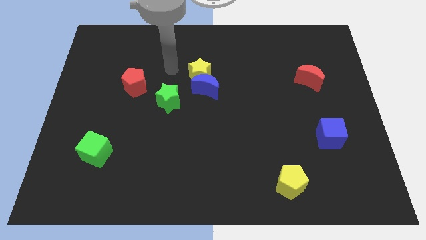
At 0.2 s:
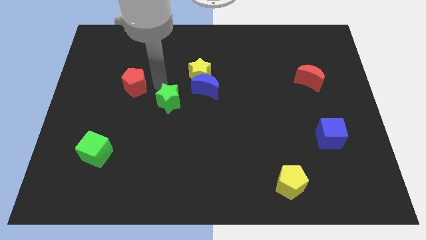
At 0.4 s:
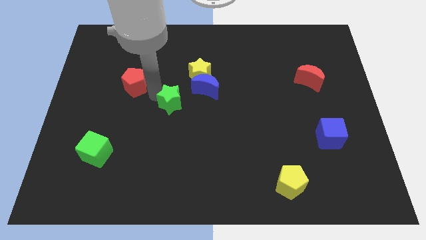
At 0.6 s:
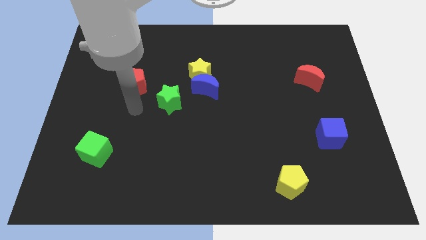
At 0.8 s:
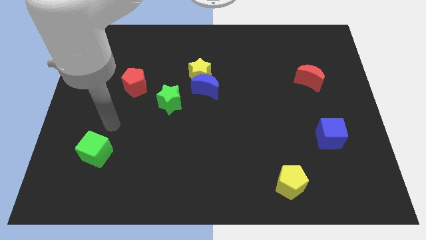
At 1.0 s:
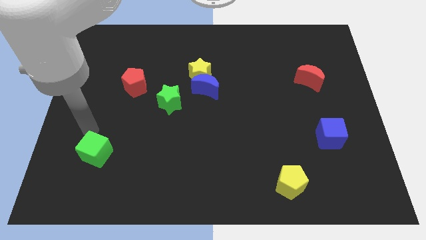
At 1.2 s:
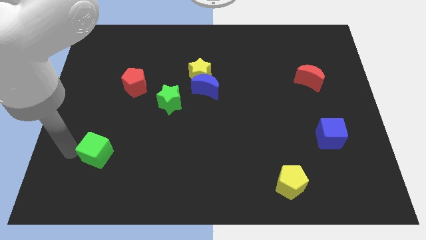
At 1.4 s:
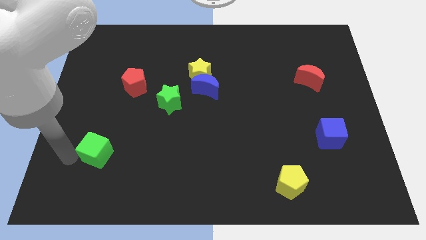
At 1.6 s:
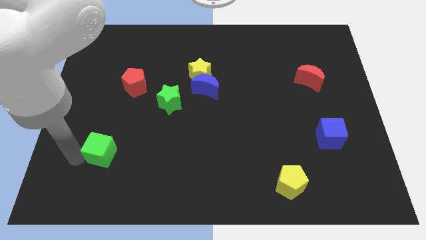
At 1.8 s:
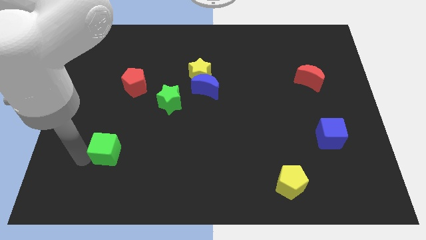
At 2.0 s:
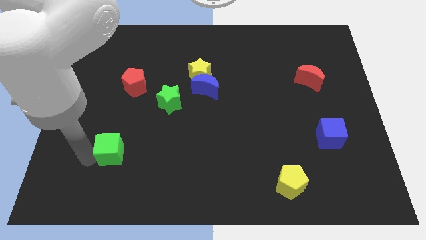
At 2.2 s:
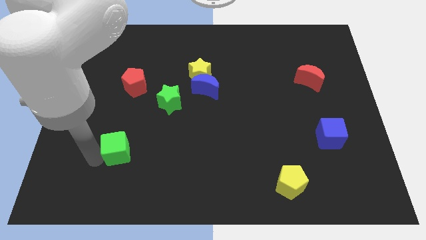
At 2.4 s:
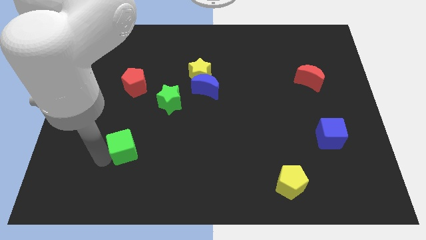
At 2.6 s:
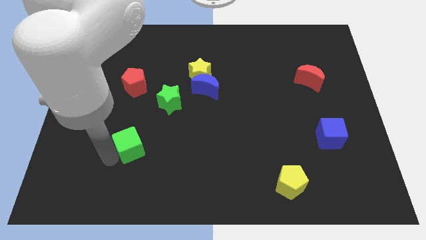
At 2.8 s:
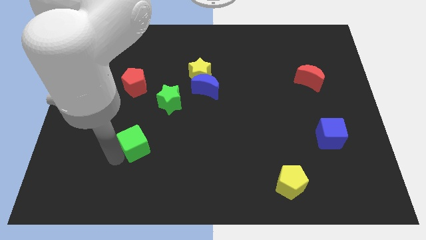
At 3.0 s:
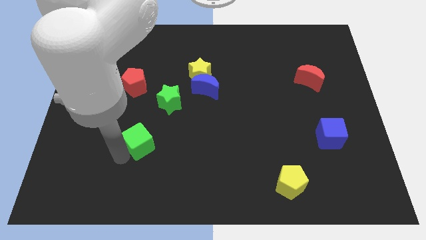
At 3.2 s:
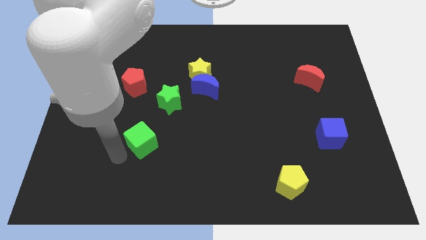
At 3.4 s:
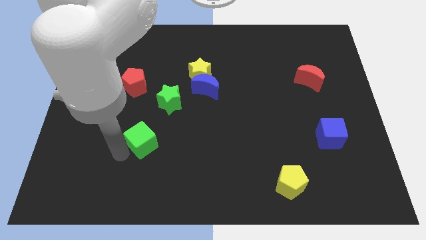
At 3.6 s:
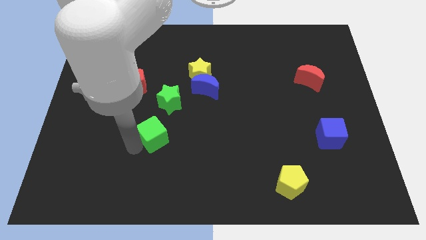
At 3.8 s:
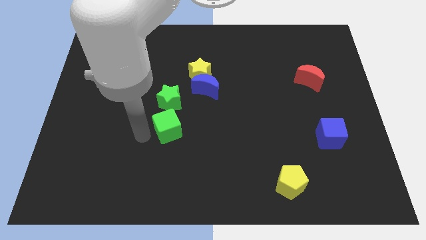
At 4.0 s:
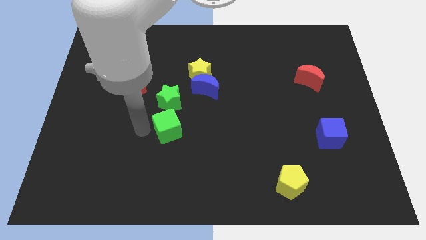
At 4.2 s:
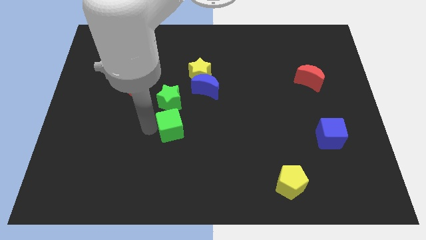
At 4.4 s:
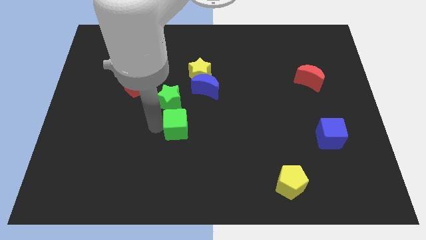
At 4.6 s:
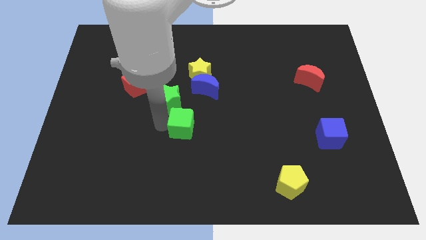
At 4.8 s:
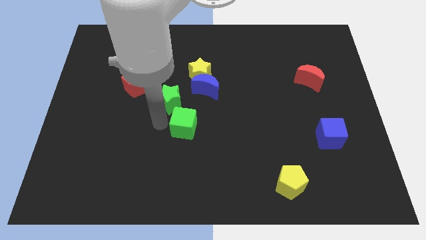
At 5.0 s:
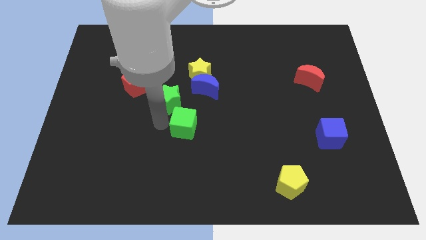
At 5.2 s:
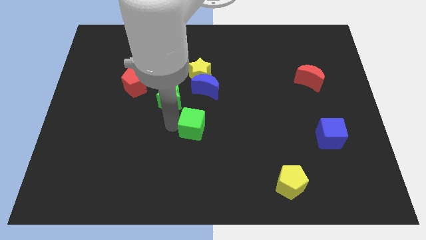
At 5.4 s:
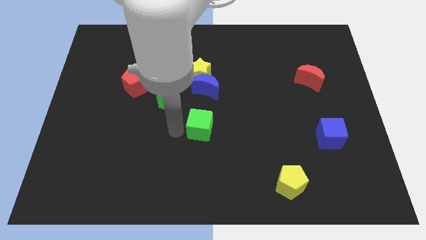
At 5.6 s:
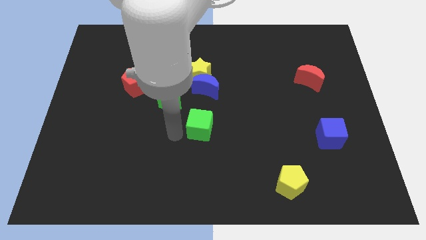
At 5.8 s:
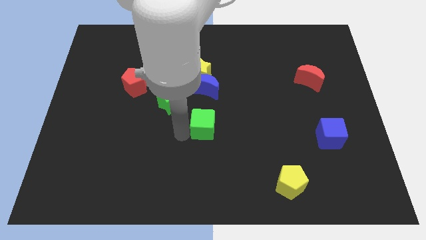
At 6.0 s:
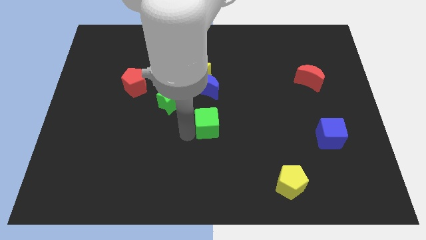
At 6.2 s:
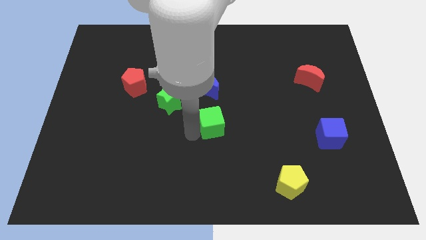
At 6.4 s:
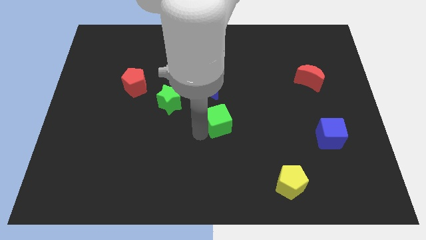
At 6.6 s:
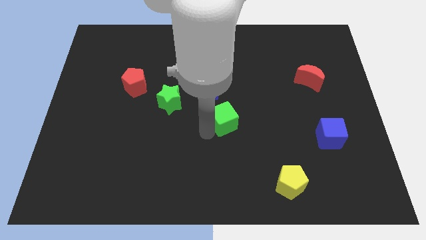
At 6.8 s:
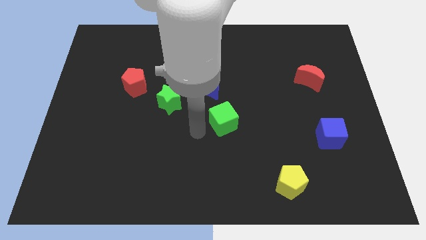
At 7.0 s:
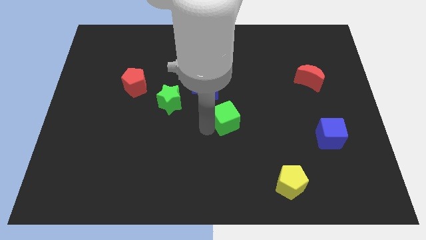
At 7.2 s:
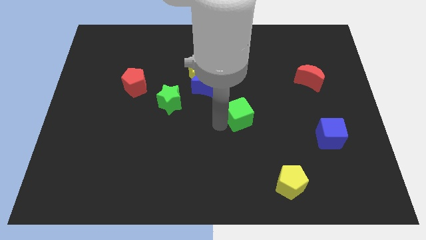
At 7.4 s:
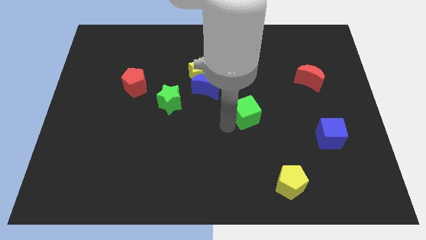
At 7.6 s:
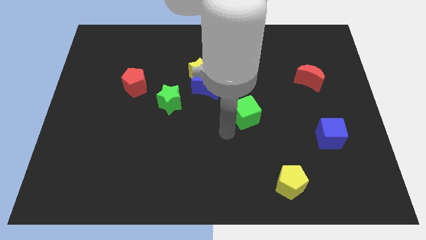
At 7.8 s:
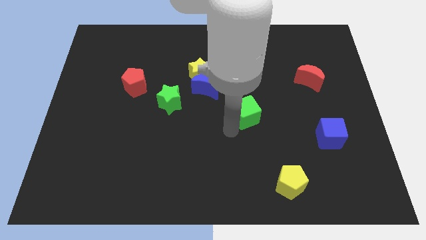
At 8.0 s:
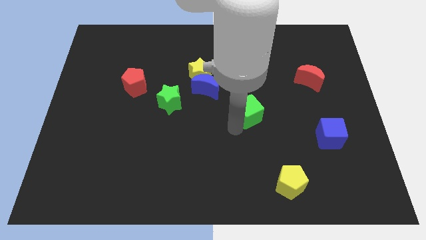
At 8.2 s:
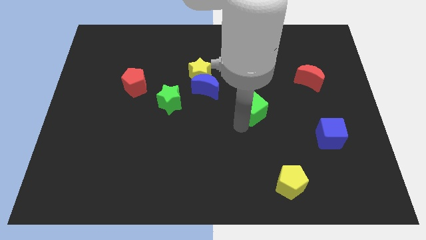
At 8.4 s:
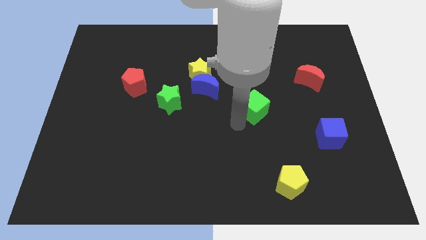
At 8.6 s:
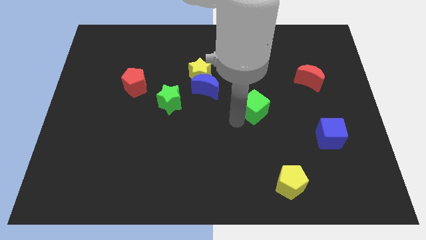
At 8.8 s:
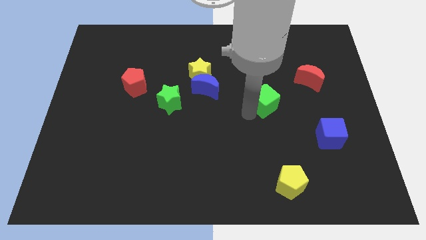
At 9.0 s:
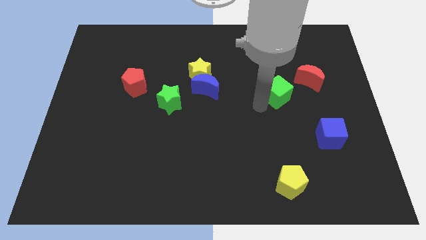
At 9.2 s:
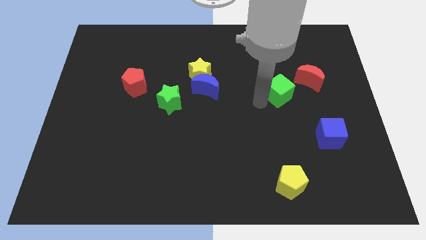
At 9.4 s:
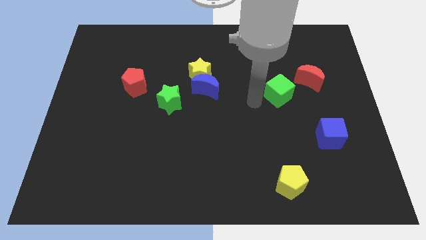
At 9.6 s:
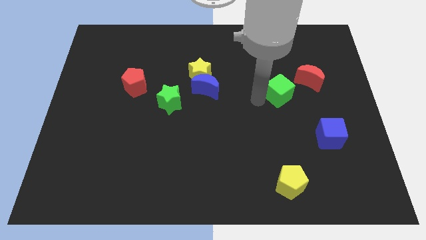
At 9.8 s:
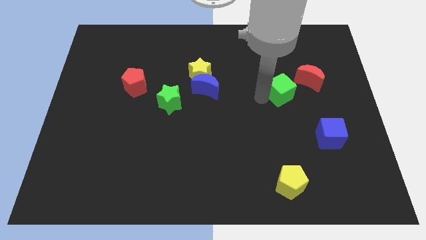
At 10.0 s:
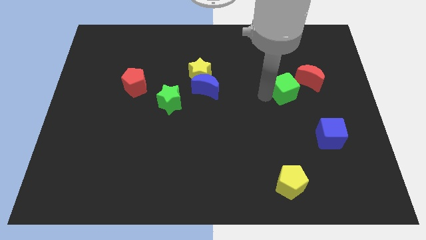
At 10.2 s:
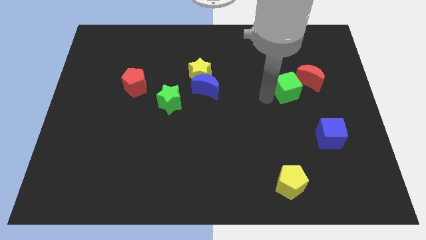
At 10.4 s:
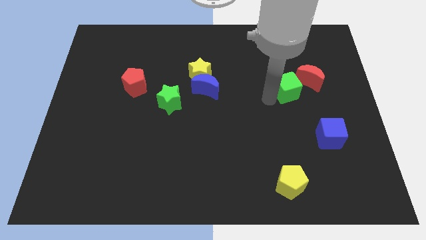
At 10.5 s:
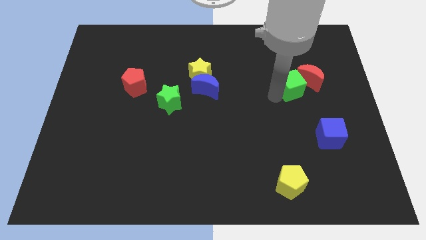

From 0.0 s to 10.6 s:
push the green cube close to the red moon

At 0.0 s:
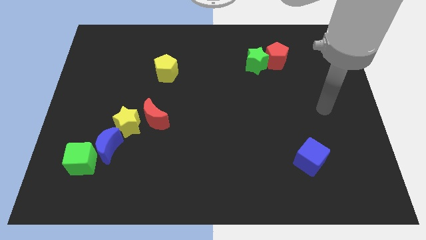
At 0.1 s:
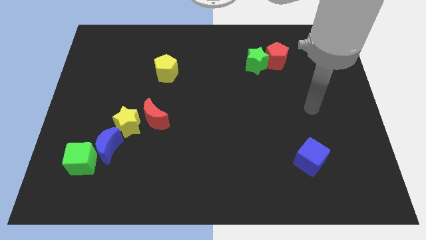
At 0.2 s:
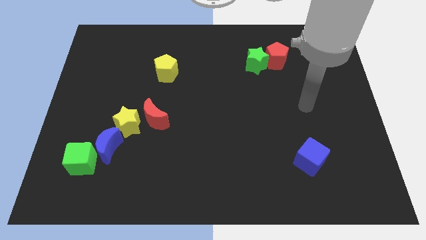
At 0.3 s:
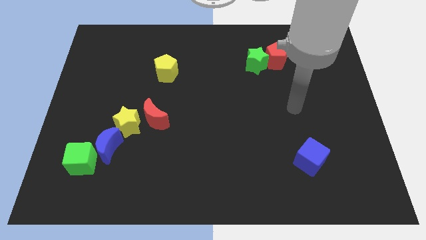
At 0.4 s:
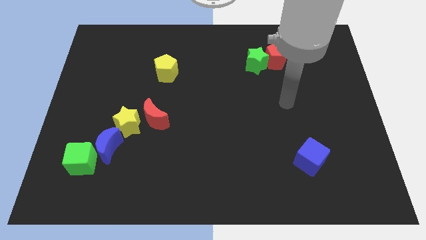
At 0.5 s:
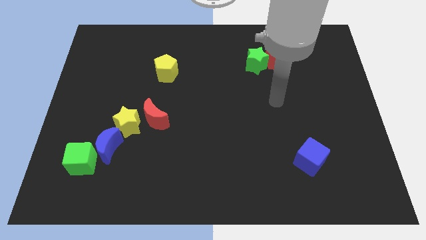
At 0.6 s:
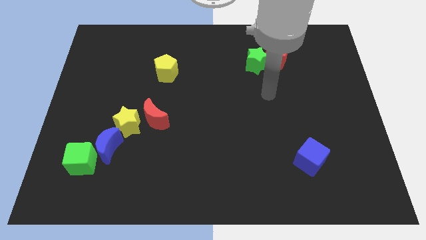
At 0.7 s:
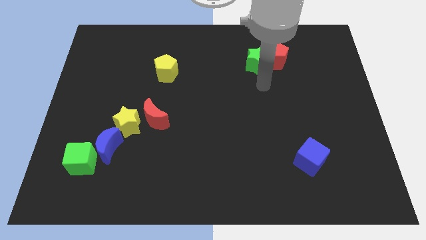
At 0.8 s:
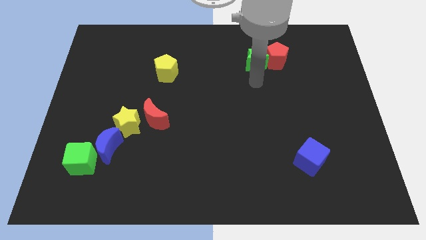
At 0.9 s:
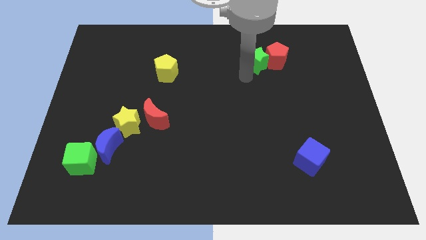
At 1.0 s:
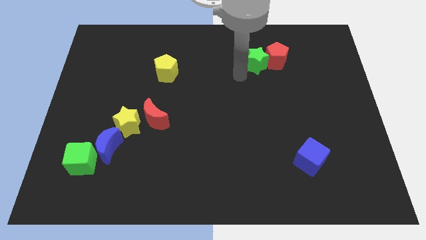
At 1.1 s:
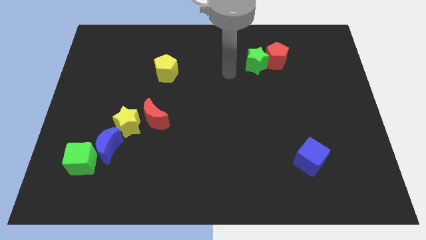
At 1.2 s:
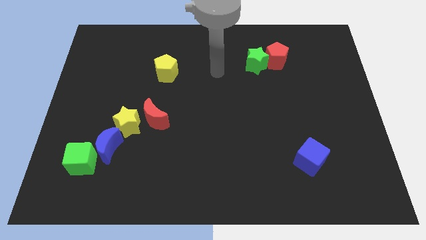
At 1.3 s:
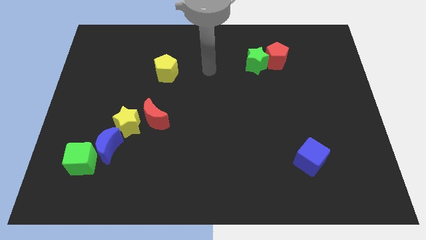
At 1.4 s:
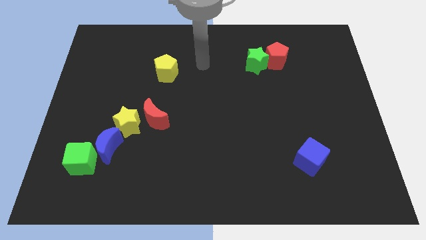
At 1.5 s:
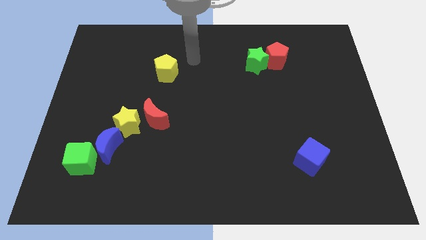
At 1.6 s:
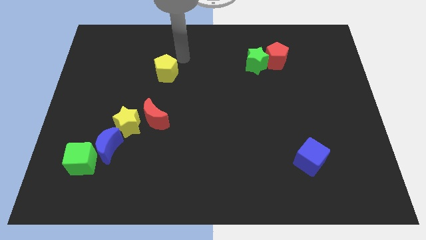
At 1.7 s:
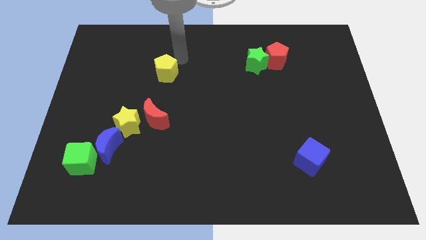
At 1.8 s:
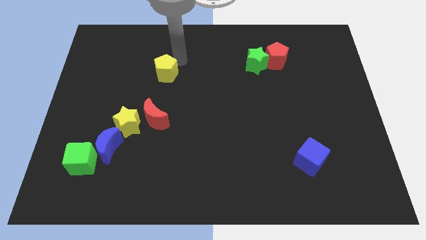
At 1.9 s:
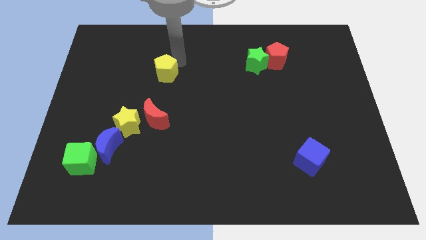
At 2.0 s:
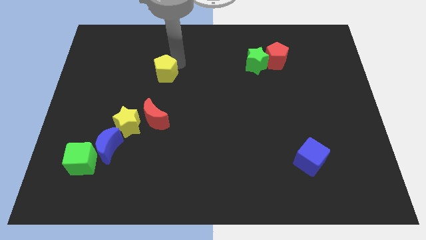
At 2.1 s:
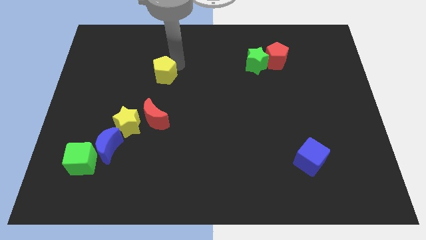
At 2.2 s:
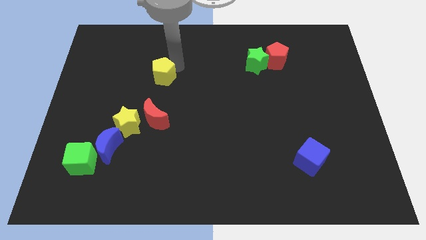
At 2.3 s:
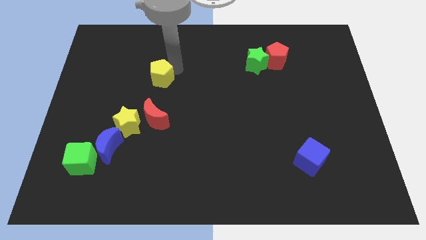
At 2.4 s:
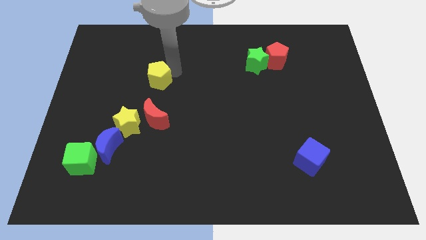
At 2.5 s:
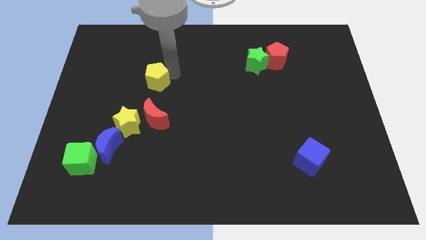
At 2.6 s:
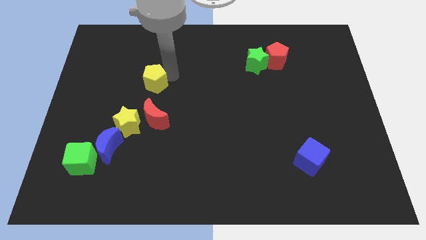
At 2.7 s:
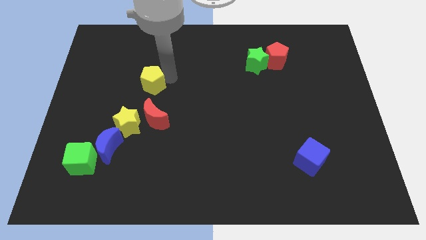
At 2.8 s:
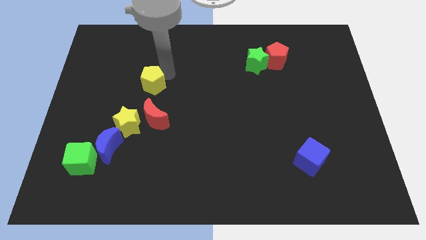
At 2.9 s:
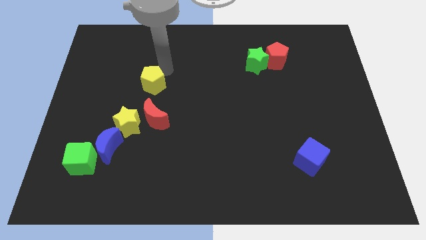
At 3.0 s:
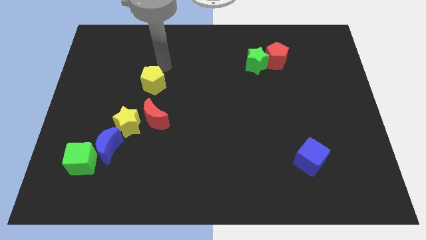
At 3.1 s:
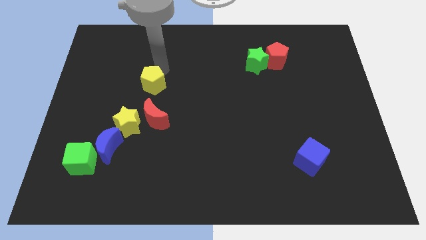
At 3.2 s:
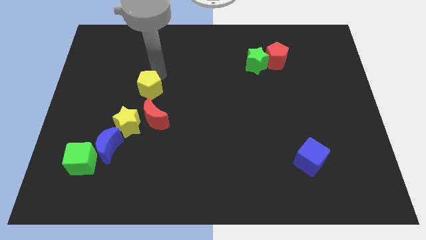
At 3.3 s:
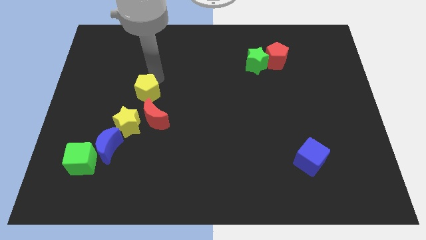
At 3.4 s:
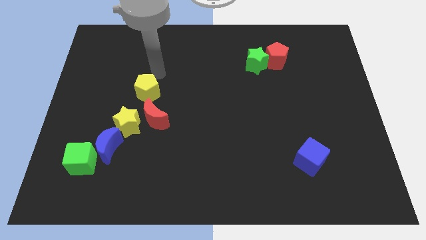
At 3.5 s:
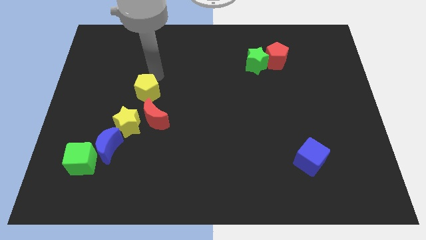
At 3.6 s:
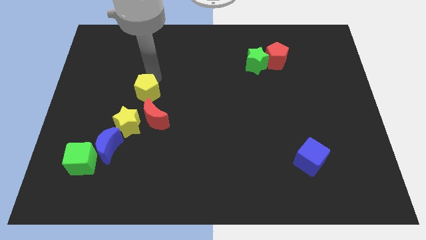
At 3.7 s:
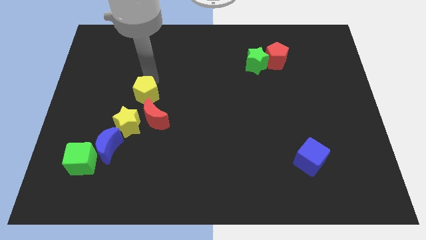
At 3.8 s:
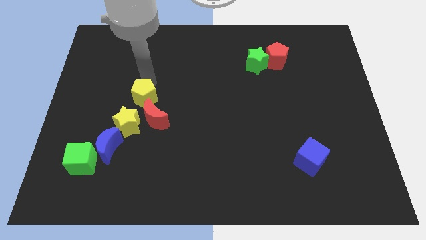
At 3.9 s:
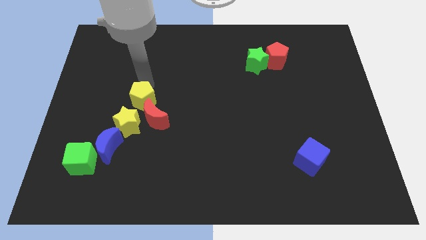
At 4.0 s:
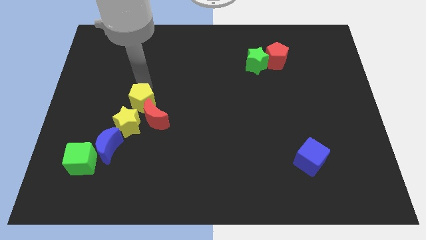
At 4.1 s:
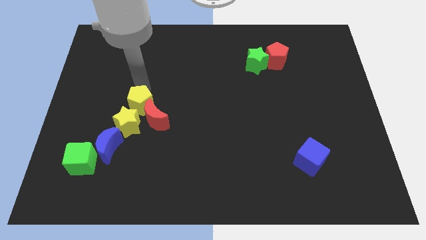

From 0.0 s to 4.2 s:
move the yellow pentagon close to the yellow star
